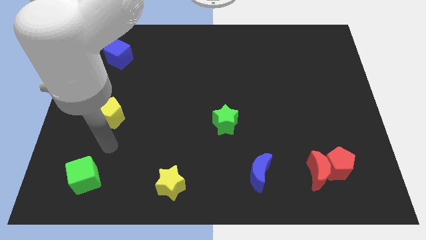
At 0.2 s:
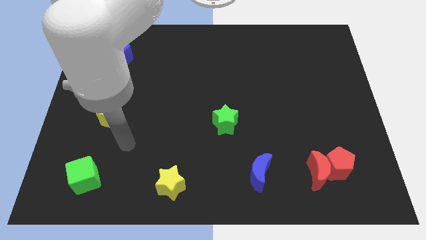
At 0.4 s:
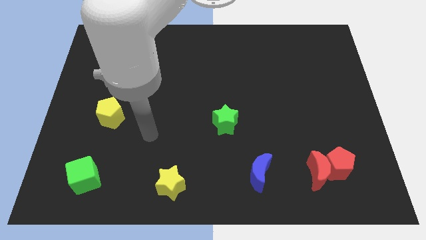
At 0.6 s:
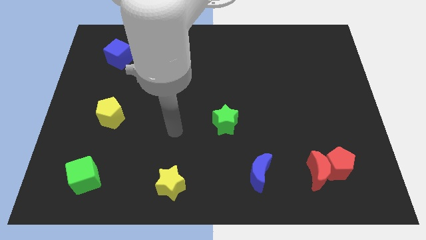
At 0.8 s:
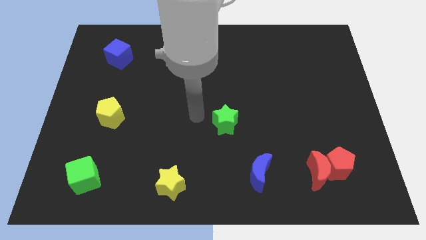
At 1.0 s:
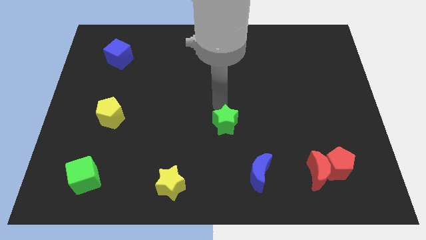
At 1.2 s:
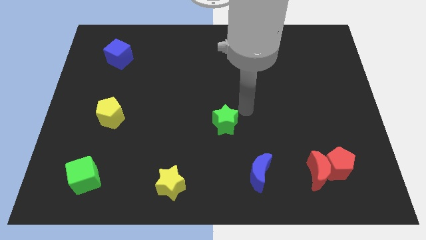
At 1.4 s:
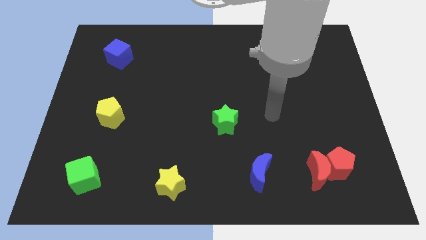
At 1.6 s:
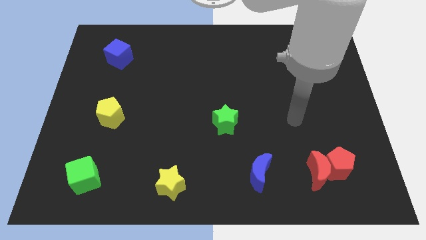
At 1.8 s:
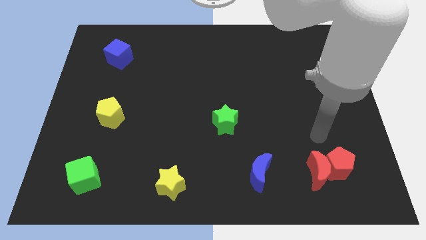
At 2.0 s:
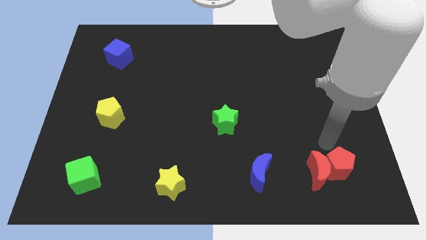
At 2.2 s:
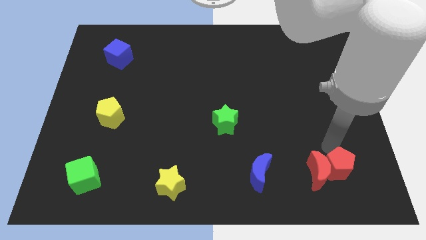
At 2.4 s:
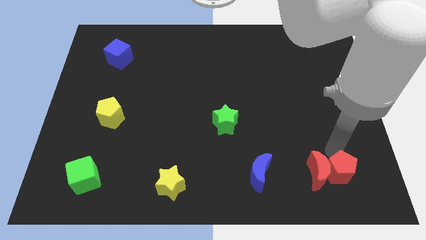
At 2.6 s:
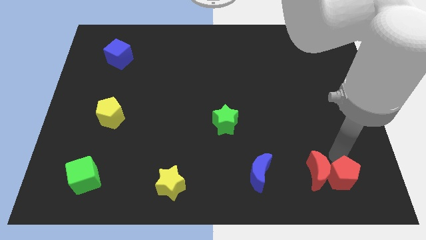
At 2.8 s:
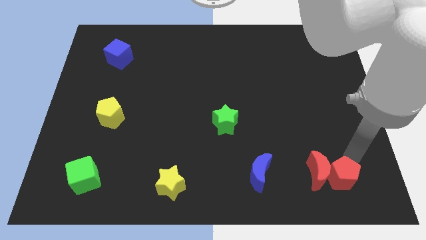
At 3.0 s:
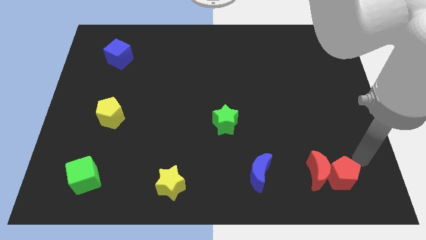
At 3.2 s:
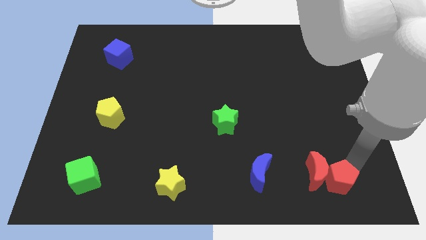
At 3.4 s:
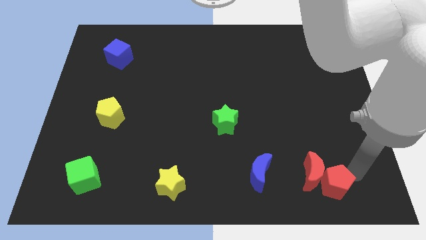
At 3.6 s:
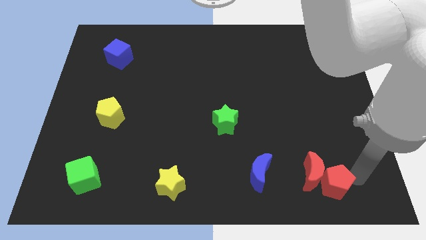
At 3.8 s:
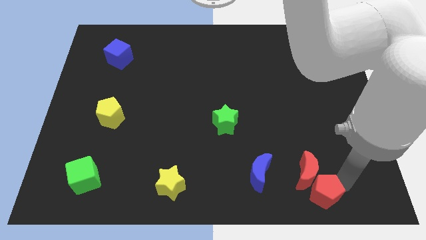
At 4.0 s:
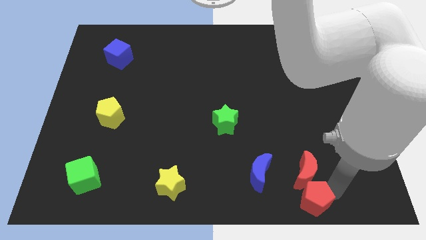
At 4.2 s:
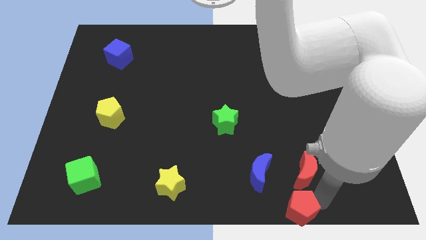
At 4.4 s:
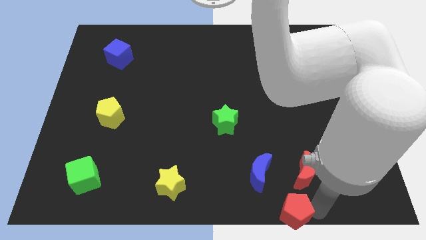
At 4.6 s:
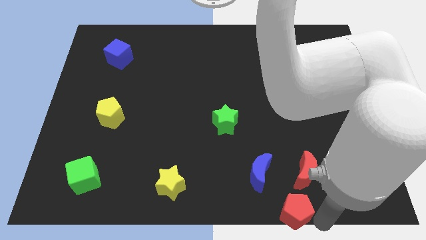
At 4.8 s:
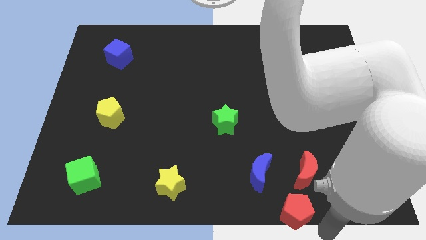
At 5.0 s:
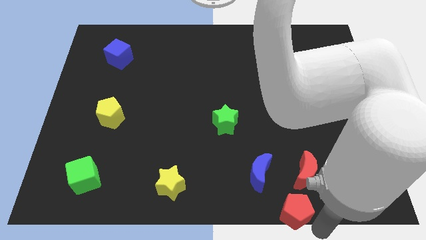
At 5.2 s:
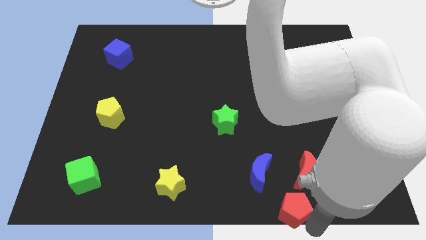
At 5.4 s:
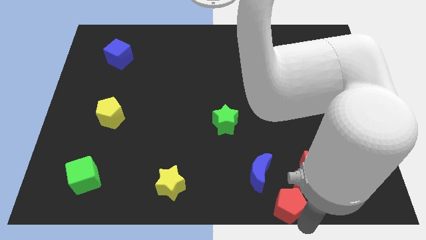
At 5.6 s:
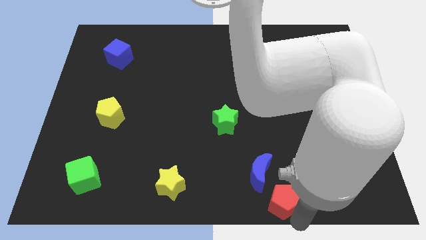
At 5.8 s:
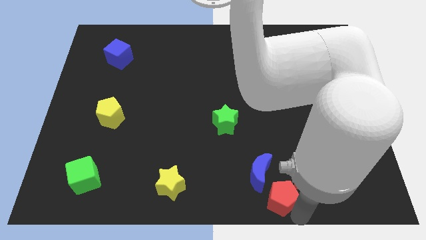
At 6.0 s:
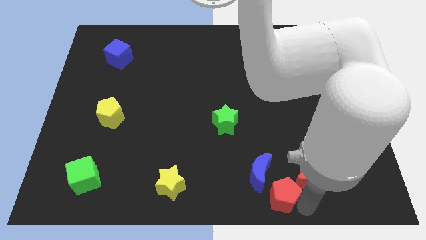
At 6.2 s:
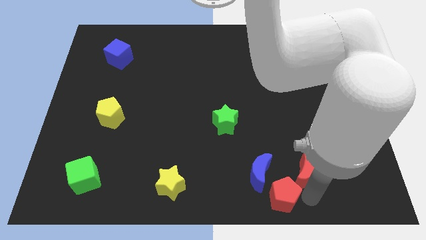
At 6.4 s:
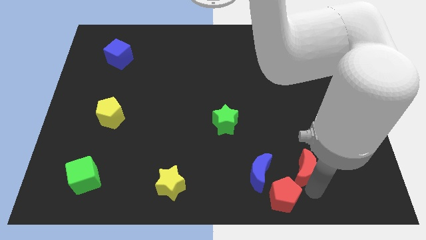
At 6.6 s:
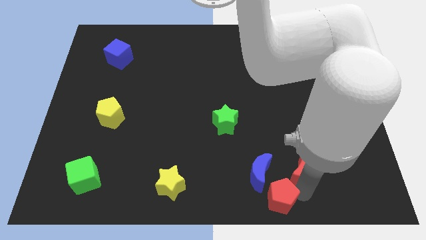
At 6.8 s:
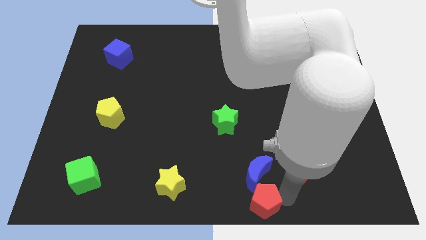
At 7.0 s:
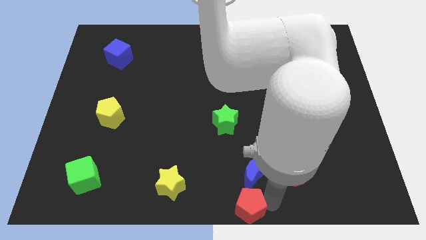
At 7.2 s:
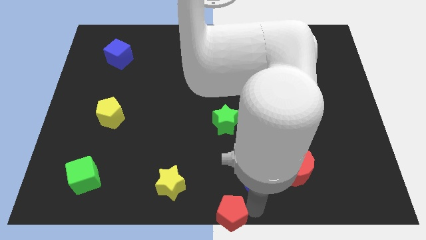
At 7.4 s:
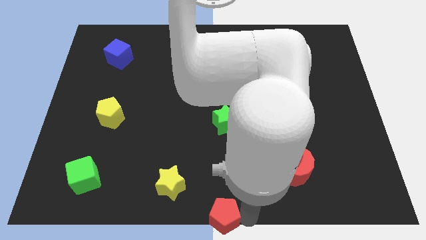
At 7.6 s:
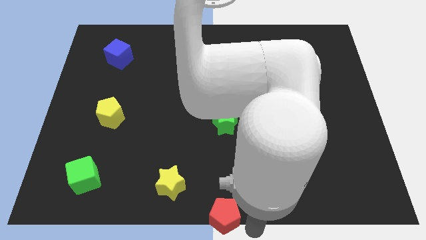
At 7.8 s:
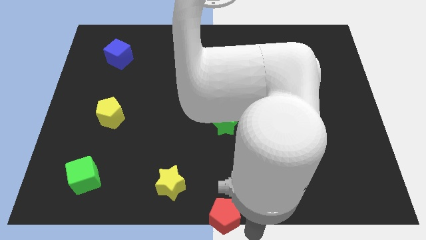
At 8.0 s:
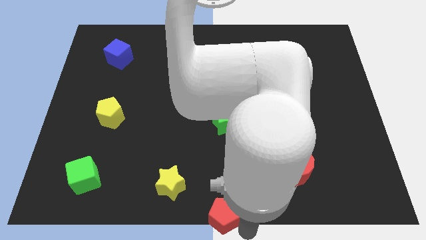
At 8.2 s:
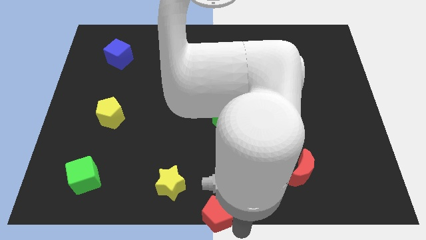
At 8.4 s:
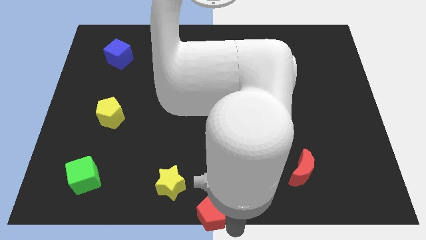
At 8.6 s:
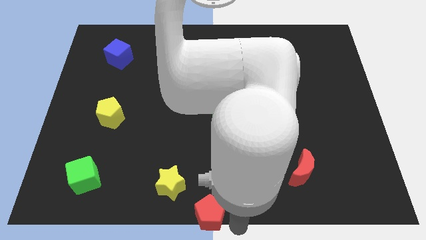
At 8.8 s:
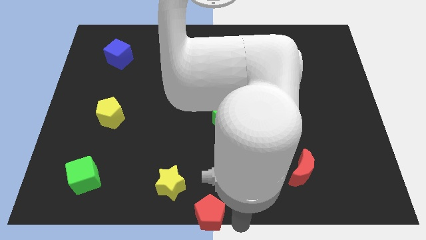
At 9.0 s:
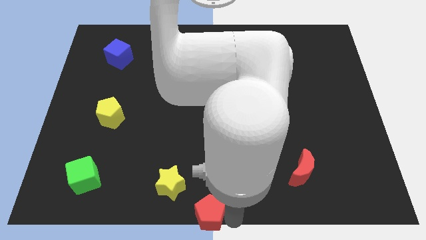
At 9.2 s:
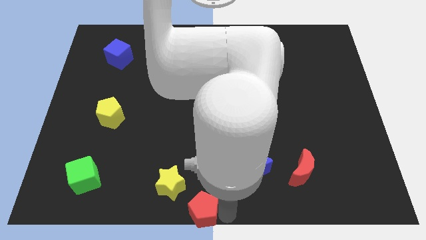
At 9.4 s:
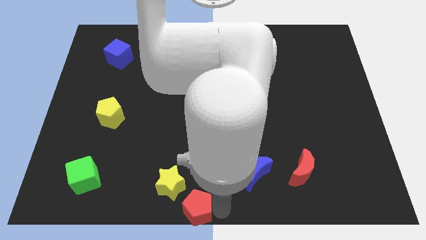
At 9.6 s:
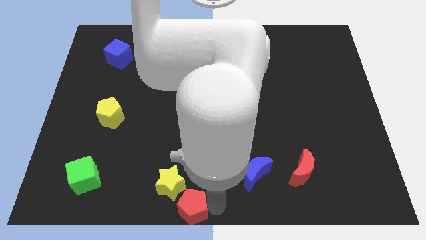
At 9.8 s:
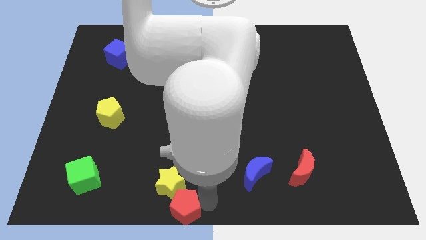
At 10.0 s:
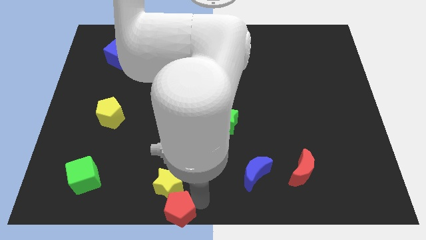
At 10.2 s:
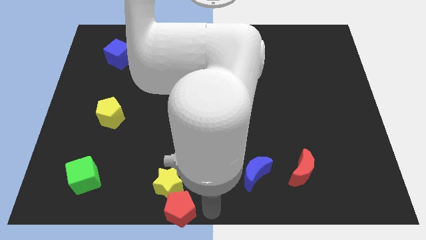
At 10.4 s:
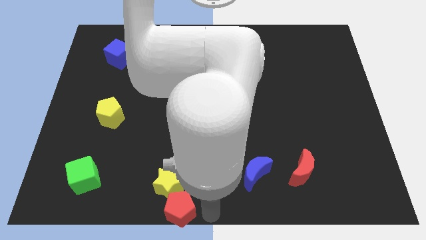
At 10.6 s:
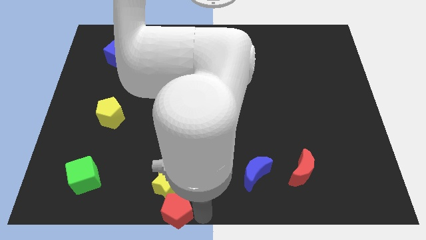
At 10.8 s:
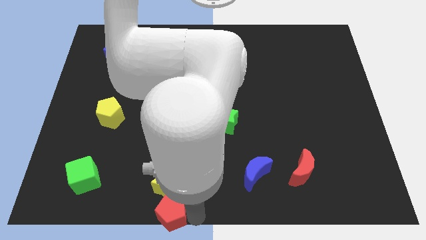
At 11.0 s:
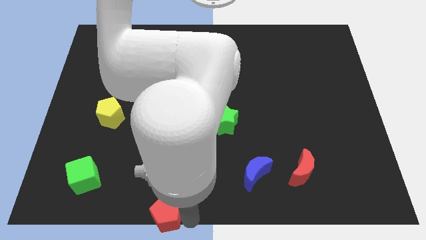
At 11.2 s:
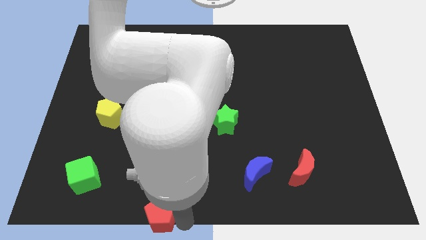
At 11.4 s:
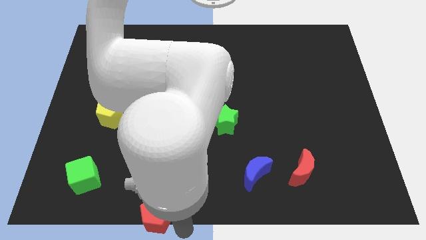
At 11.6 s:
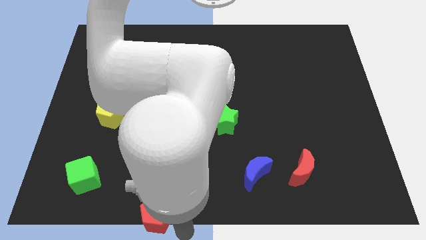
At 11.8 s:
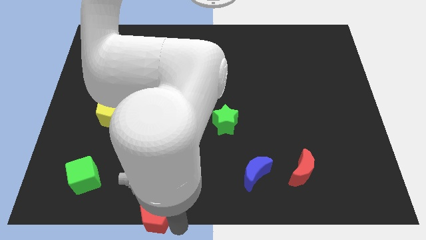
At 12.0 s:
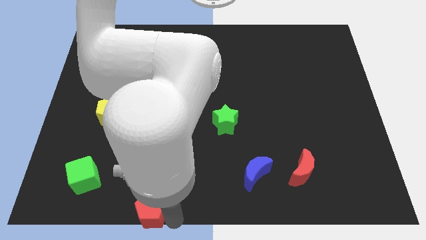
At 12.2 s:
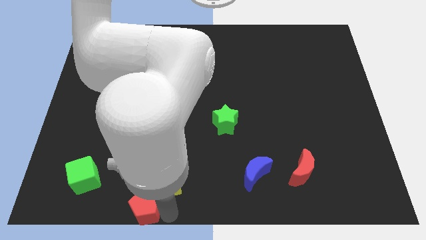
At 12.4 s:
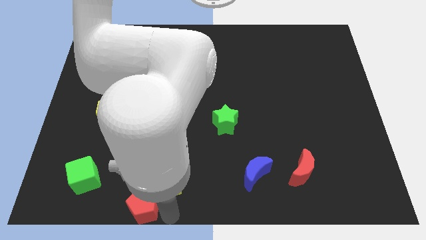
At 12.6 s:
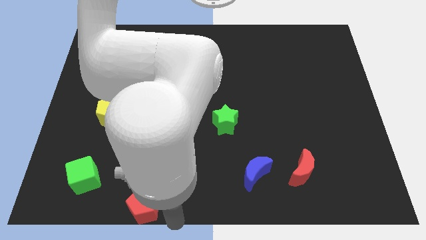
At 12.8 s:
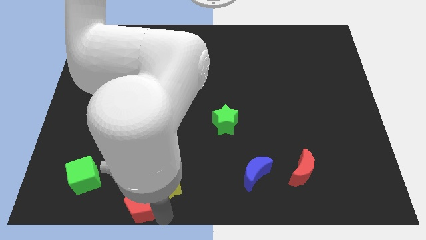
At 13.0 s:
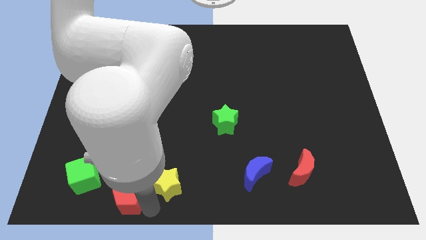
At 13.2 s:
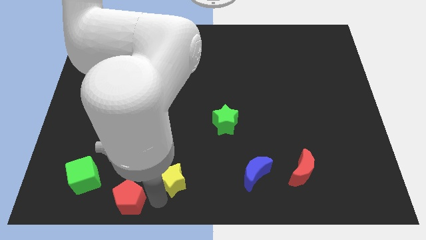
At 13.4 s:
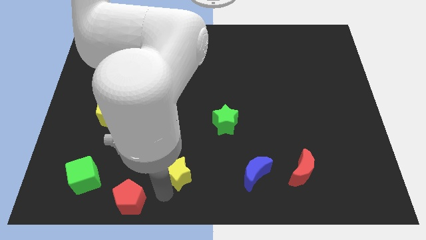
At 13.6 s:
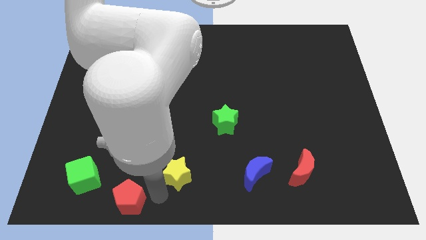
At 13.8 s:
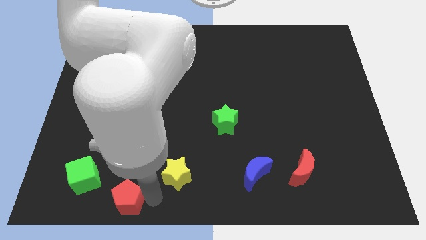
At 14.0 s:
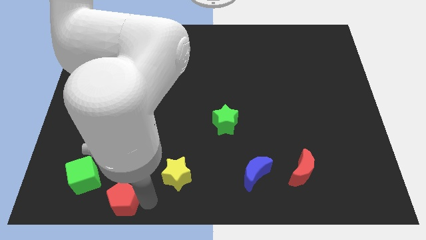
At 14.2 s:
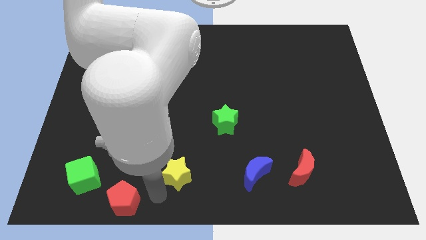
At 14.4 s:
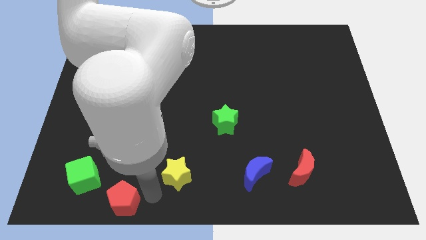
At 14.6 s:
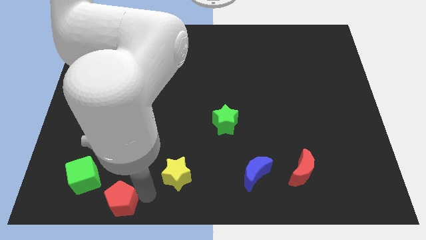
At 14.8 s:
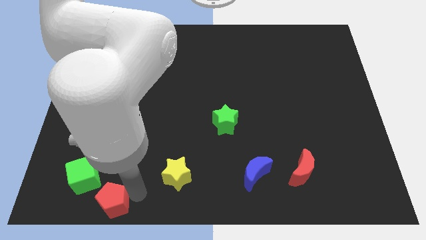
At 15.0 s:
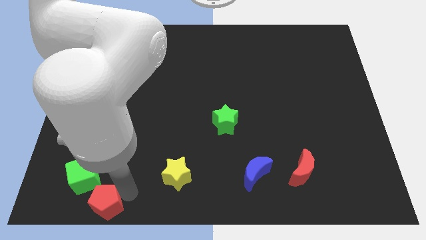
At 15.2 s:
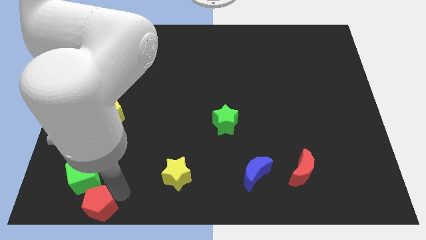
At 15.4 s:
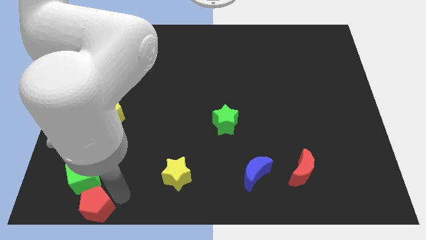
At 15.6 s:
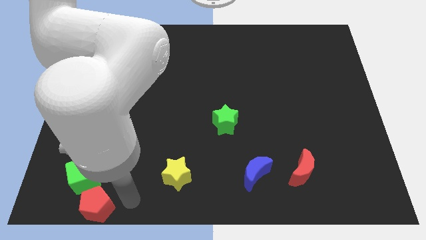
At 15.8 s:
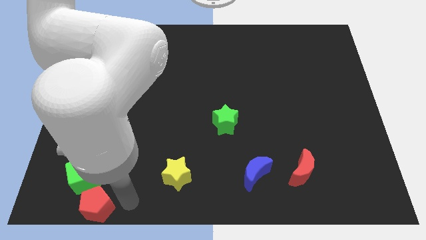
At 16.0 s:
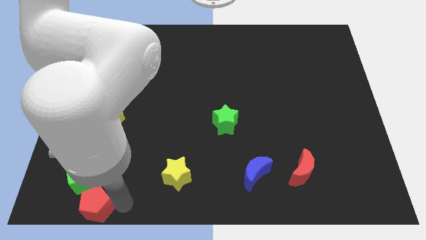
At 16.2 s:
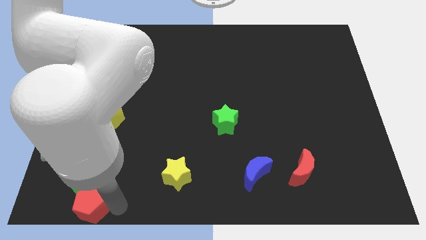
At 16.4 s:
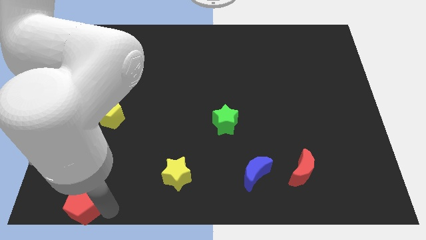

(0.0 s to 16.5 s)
move the red pentagon to the bottom left corner
